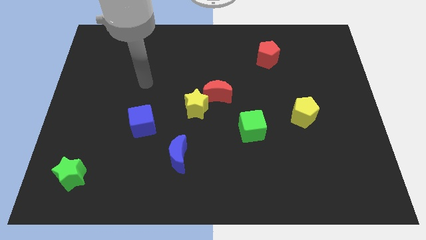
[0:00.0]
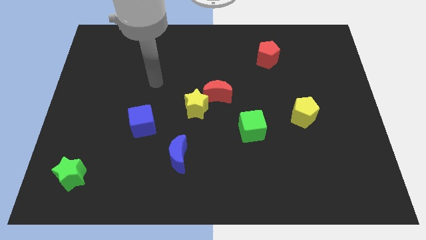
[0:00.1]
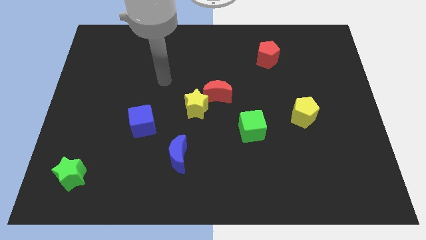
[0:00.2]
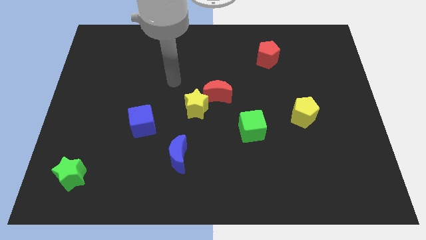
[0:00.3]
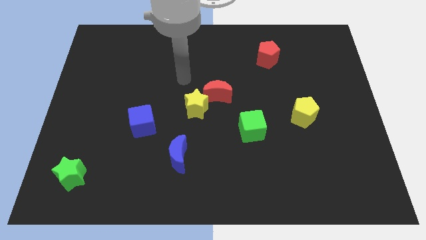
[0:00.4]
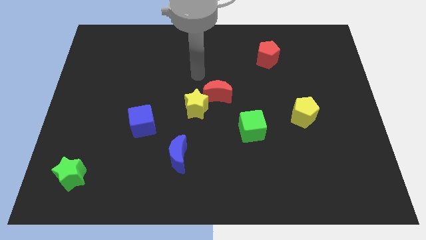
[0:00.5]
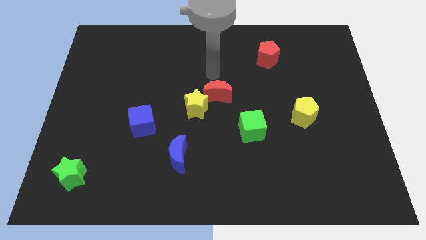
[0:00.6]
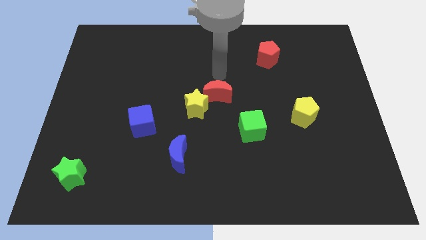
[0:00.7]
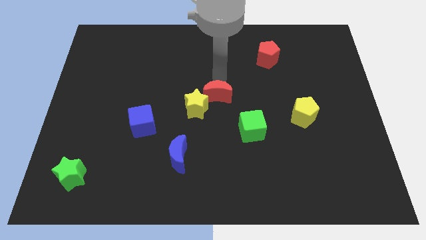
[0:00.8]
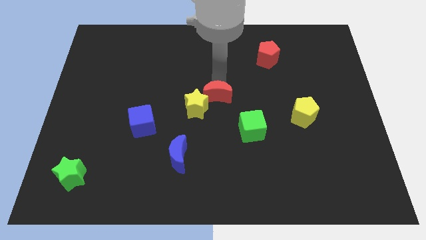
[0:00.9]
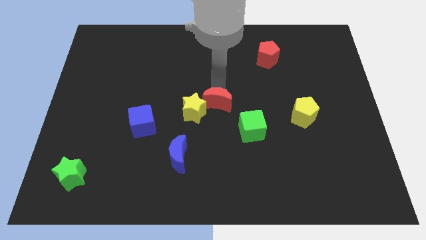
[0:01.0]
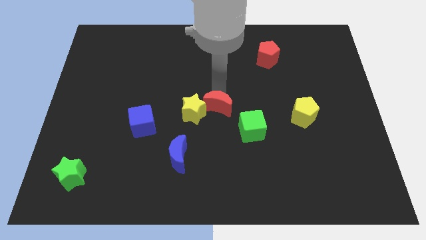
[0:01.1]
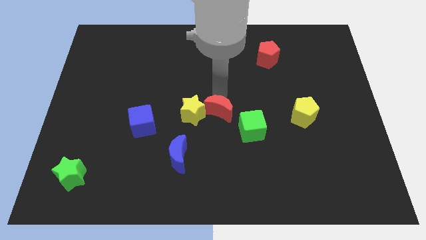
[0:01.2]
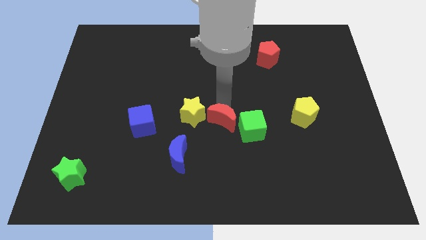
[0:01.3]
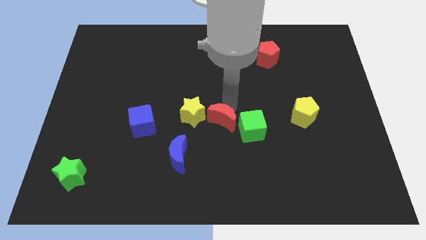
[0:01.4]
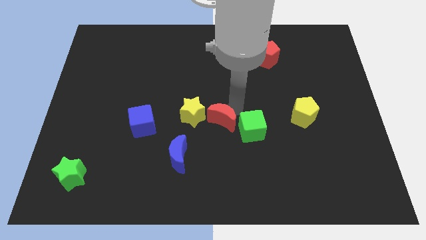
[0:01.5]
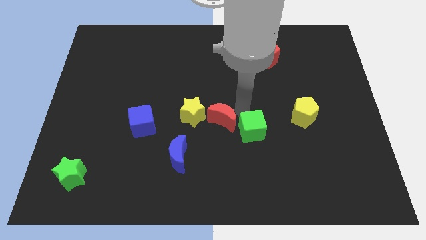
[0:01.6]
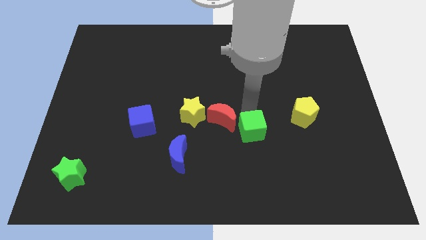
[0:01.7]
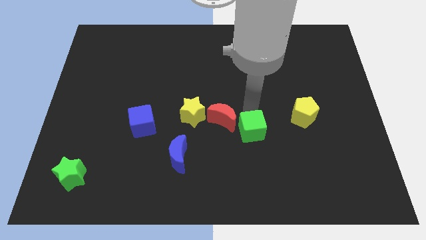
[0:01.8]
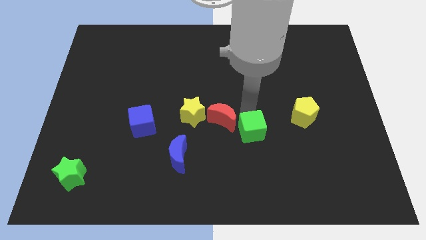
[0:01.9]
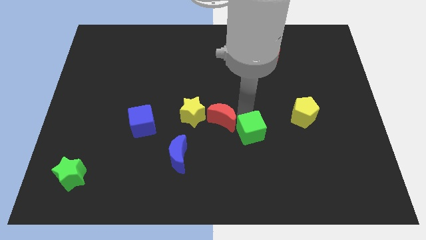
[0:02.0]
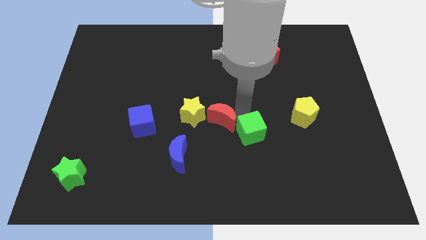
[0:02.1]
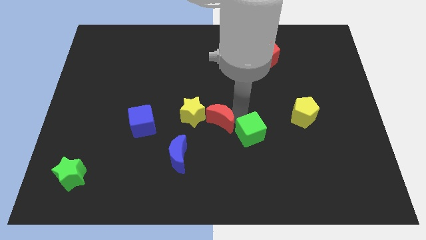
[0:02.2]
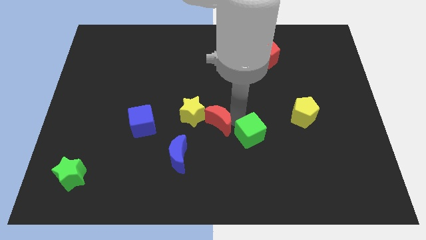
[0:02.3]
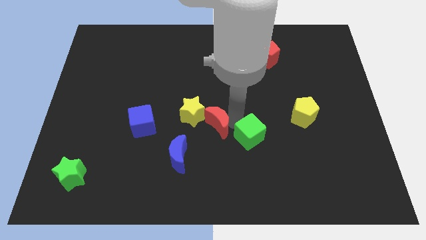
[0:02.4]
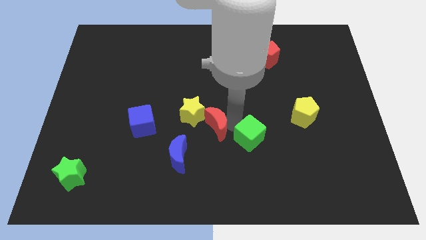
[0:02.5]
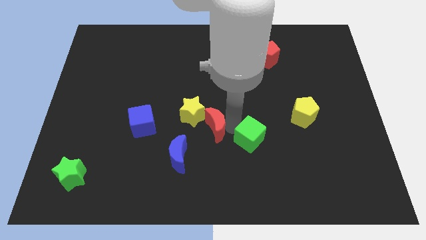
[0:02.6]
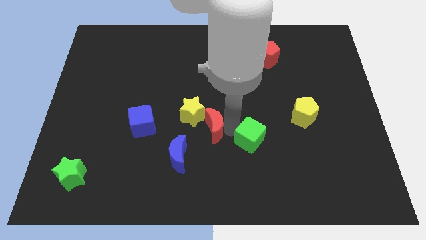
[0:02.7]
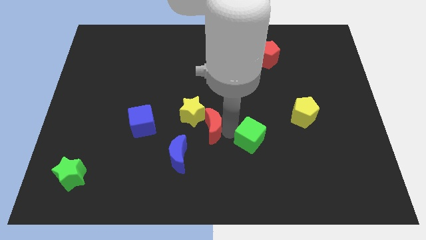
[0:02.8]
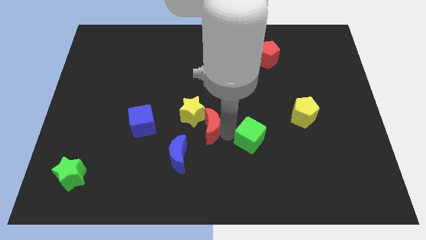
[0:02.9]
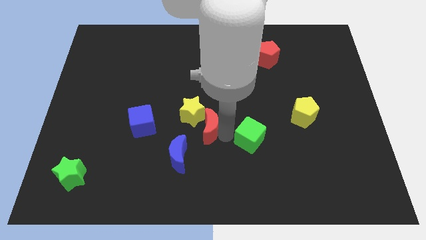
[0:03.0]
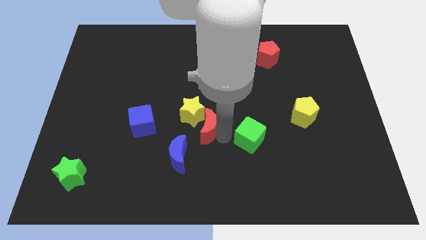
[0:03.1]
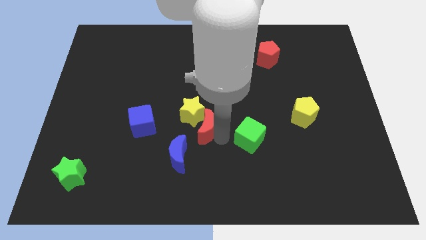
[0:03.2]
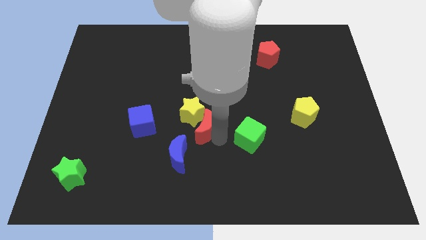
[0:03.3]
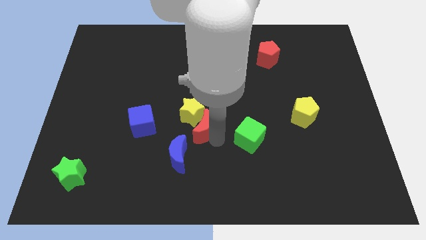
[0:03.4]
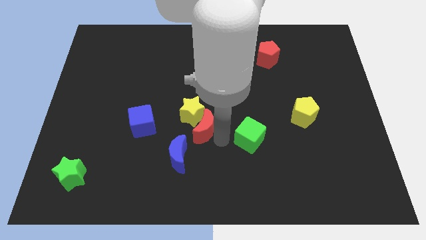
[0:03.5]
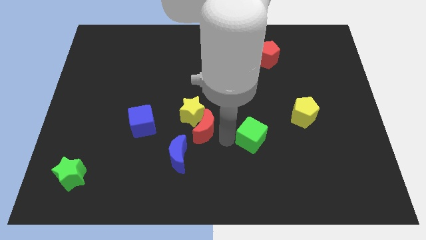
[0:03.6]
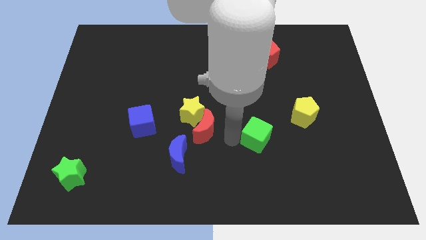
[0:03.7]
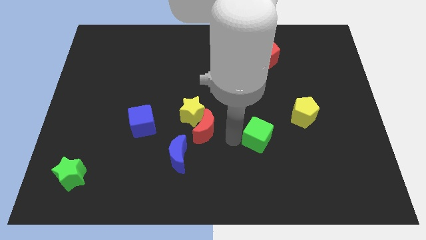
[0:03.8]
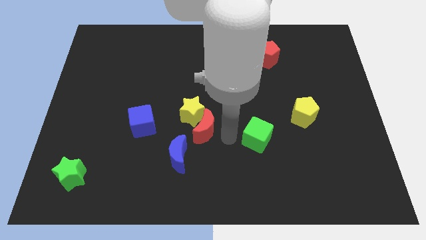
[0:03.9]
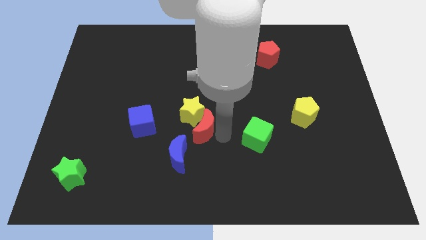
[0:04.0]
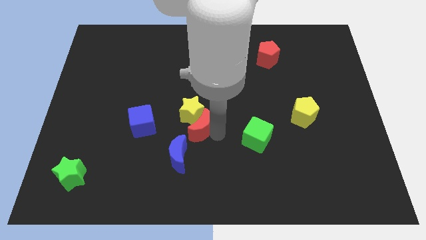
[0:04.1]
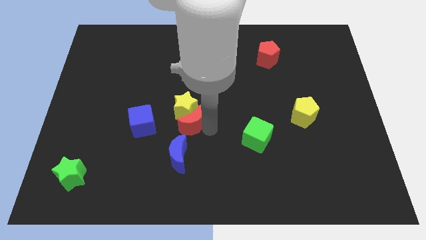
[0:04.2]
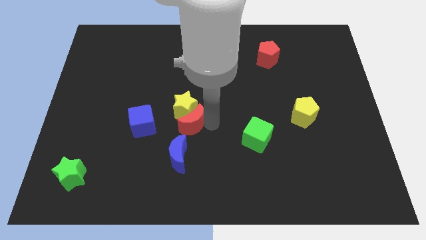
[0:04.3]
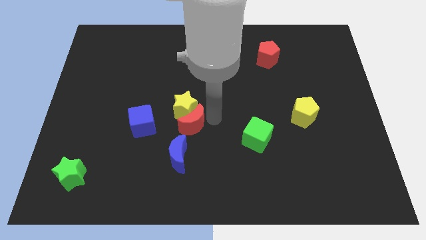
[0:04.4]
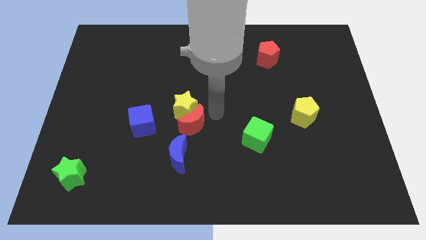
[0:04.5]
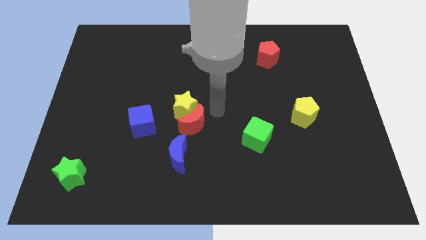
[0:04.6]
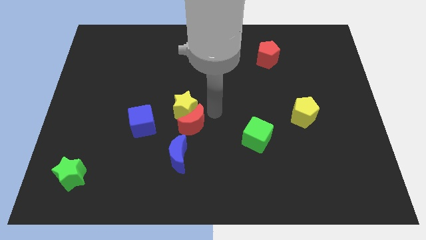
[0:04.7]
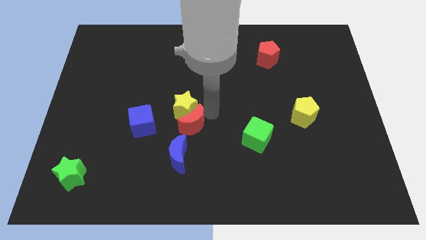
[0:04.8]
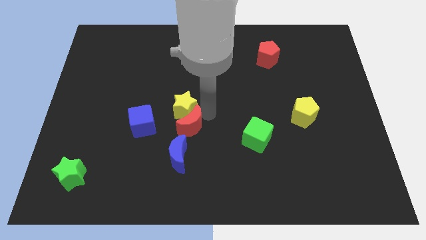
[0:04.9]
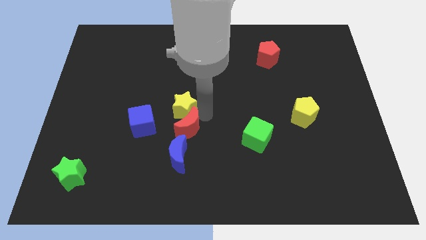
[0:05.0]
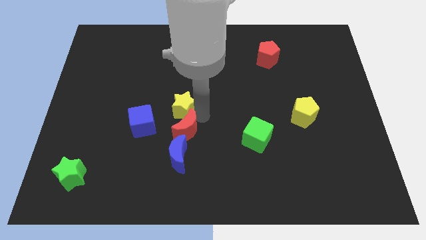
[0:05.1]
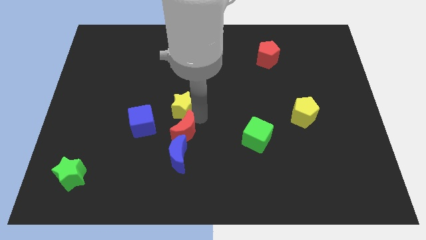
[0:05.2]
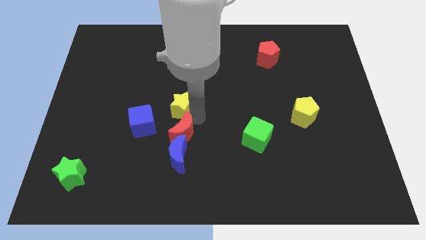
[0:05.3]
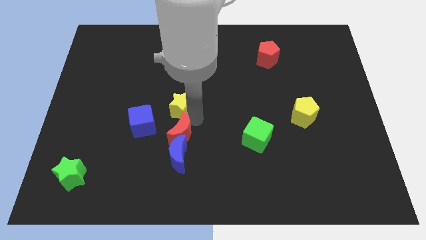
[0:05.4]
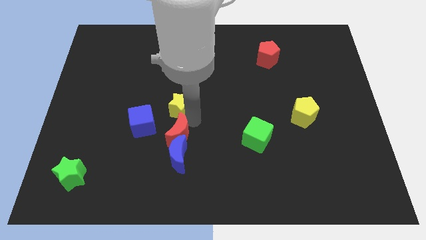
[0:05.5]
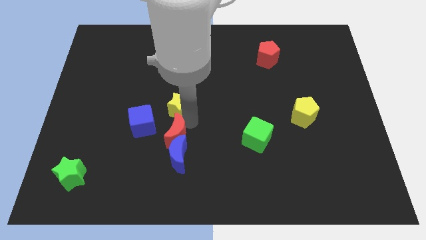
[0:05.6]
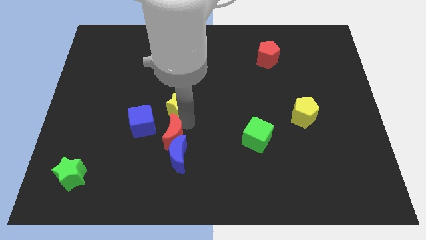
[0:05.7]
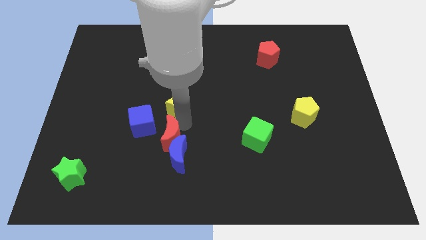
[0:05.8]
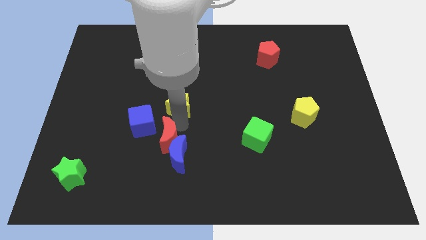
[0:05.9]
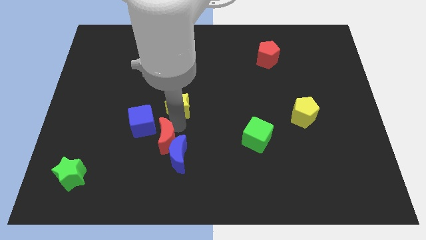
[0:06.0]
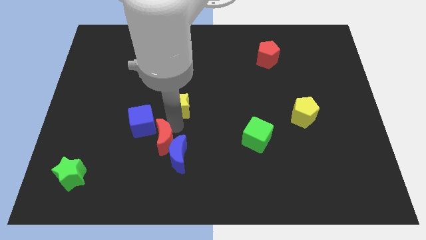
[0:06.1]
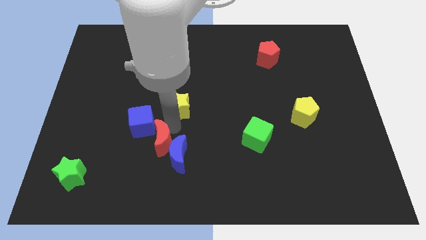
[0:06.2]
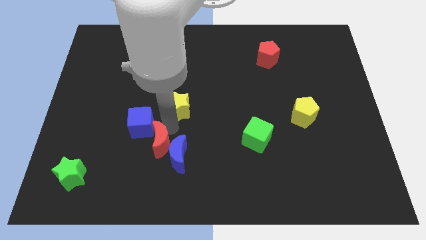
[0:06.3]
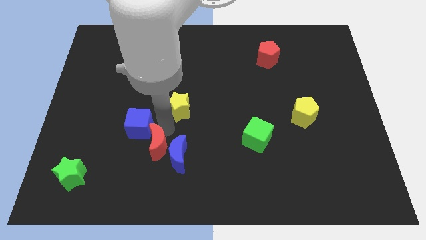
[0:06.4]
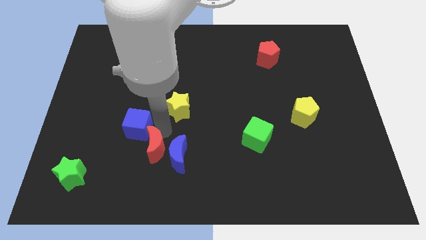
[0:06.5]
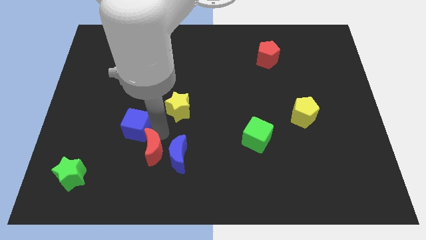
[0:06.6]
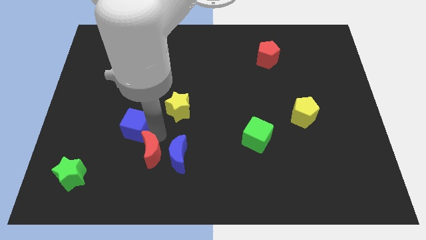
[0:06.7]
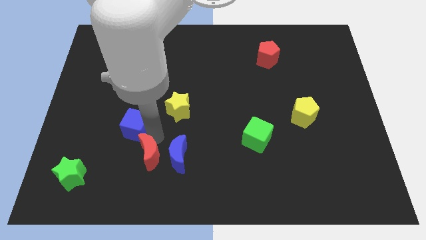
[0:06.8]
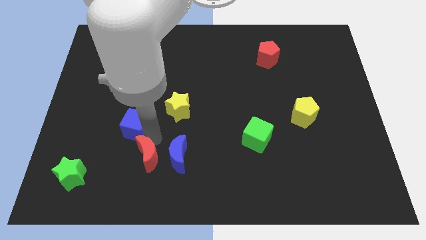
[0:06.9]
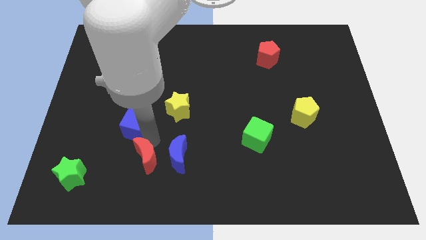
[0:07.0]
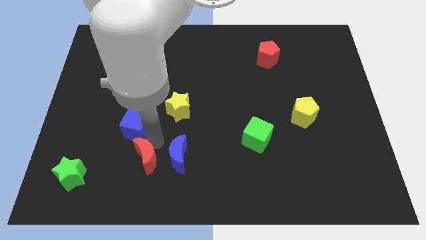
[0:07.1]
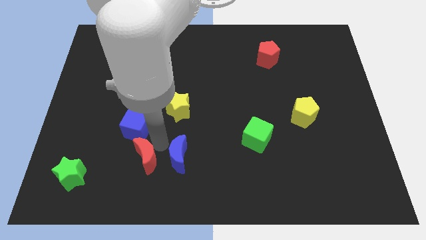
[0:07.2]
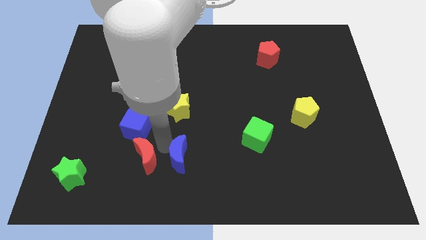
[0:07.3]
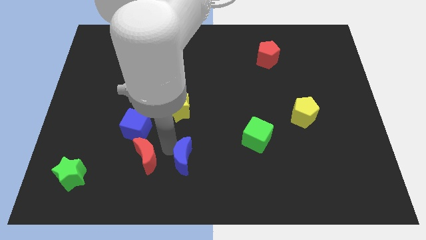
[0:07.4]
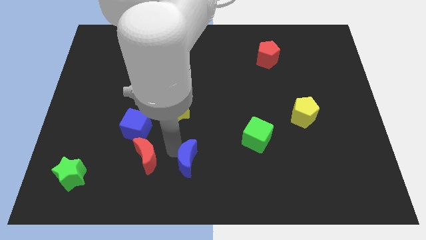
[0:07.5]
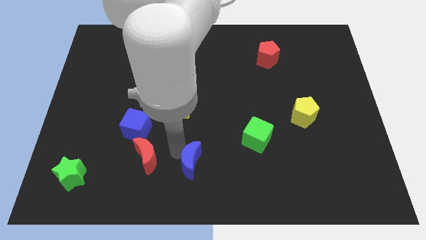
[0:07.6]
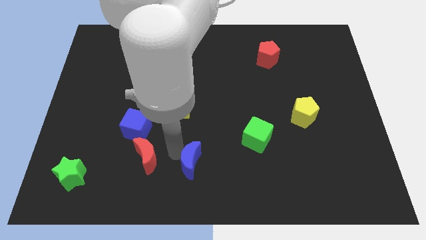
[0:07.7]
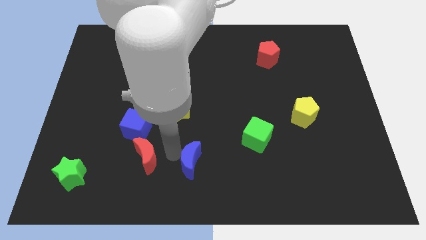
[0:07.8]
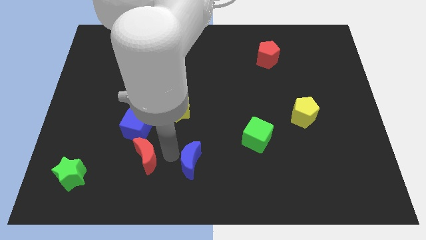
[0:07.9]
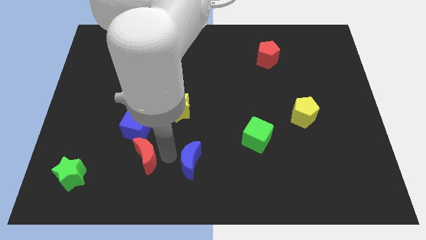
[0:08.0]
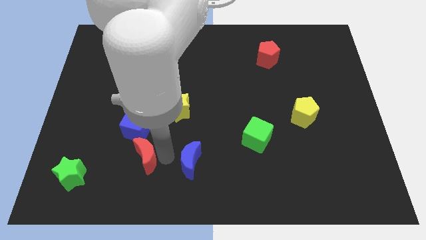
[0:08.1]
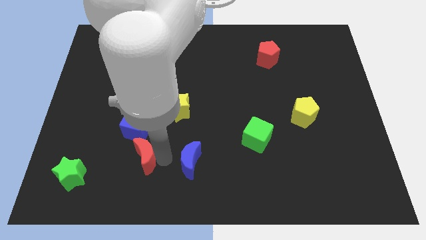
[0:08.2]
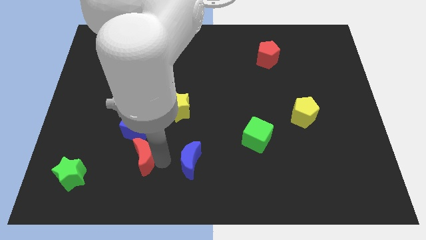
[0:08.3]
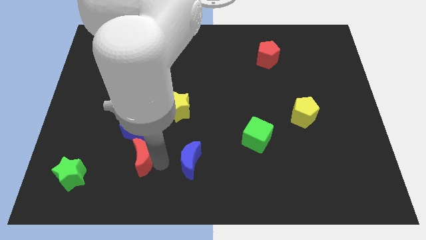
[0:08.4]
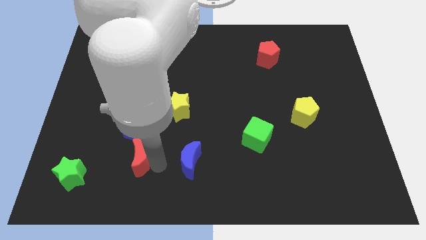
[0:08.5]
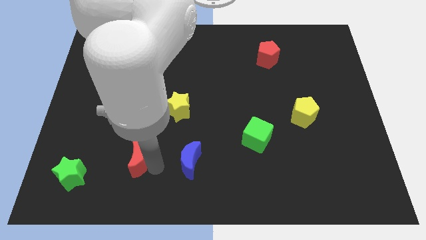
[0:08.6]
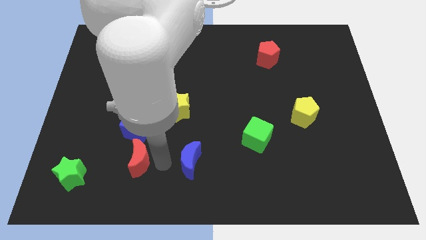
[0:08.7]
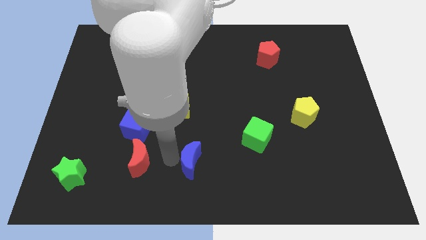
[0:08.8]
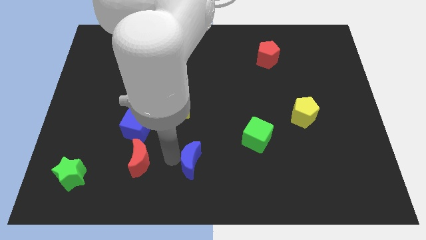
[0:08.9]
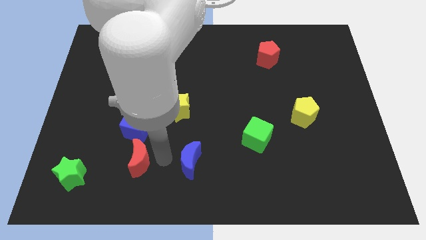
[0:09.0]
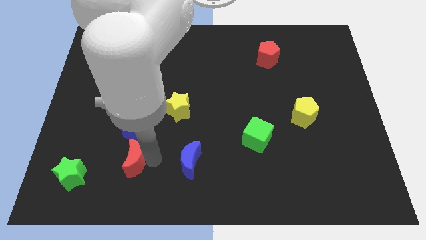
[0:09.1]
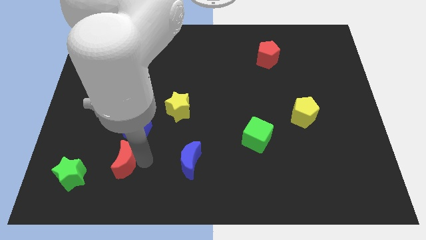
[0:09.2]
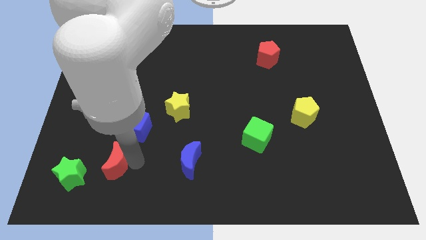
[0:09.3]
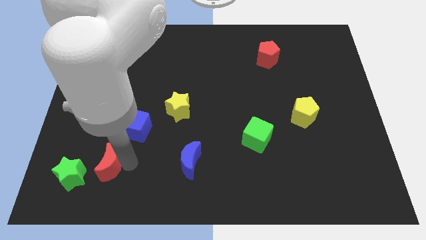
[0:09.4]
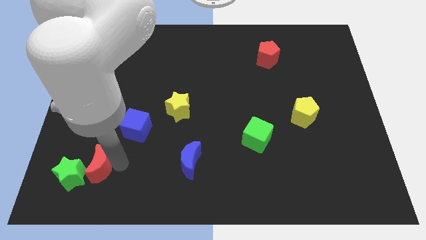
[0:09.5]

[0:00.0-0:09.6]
move the red moon to the green star
